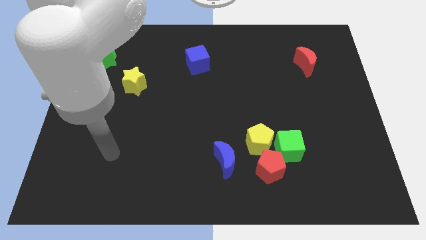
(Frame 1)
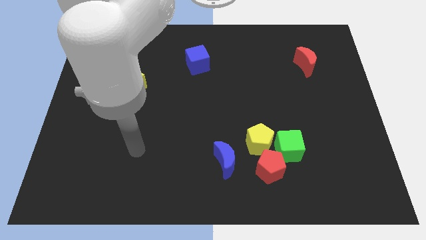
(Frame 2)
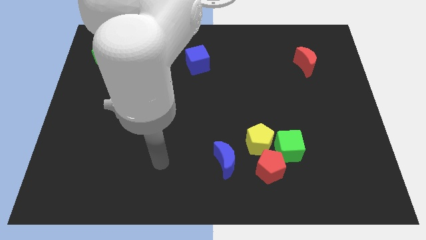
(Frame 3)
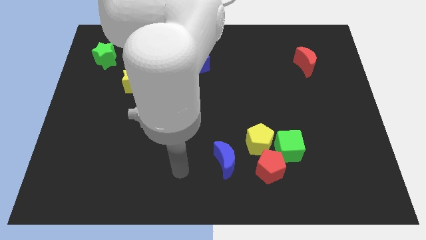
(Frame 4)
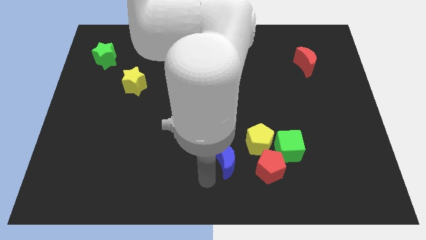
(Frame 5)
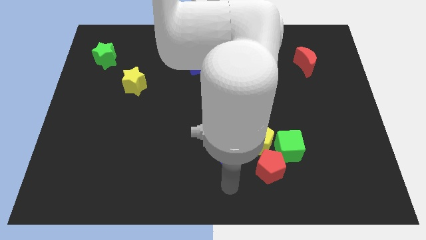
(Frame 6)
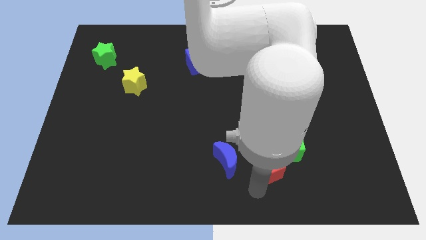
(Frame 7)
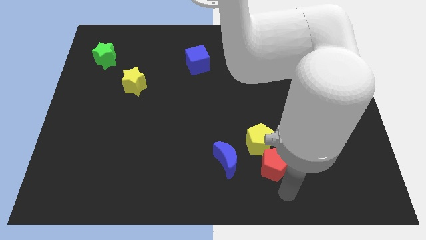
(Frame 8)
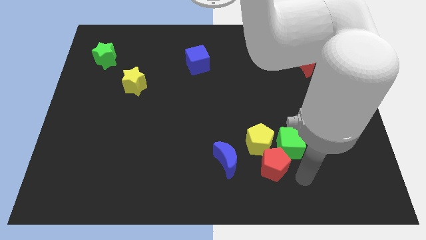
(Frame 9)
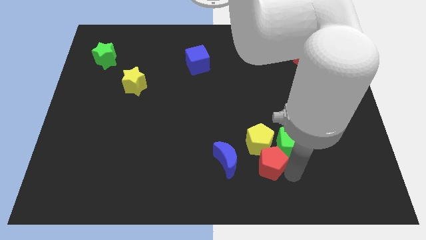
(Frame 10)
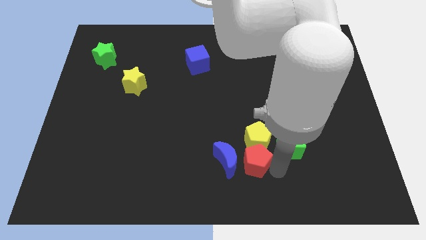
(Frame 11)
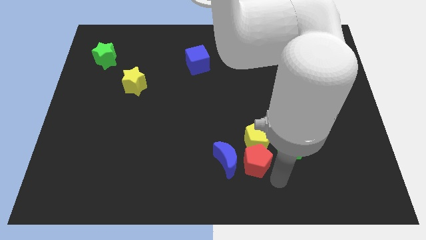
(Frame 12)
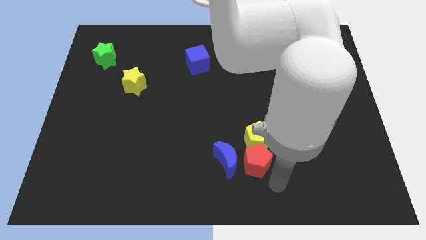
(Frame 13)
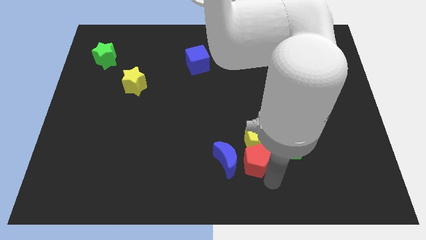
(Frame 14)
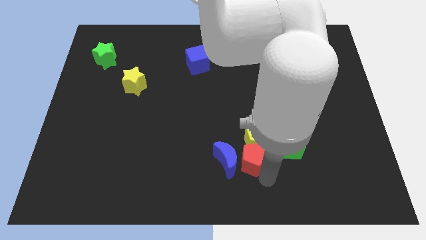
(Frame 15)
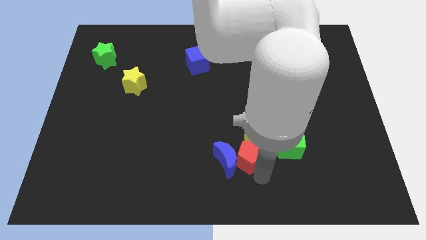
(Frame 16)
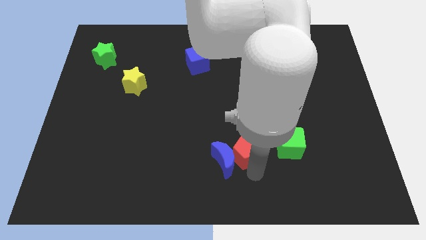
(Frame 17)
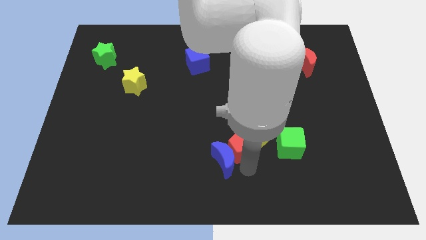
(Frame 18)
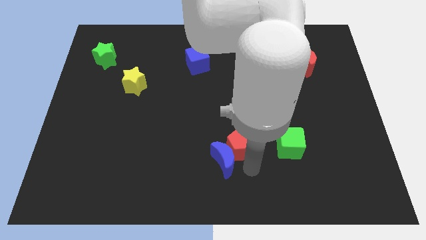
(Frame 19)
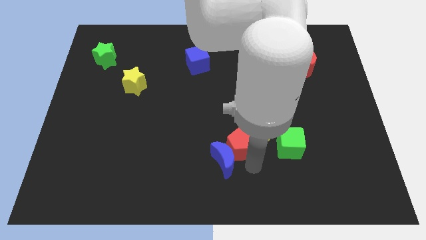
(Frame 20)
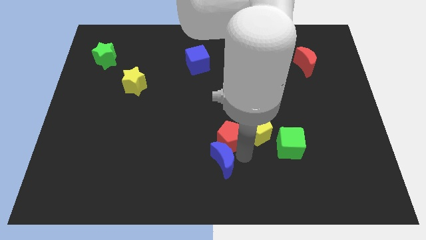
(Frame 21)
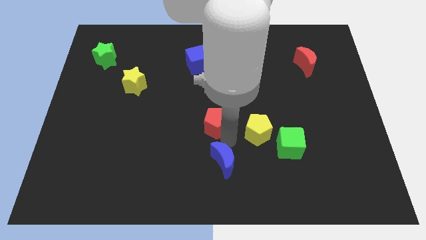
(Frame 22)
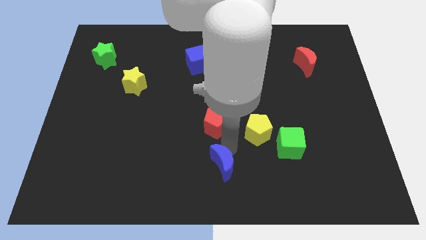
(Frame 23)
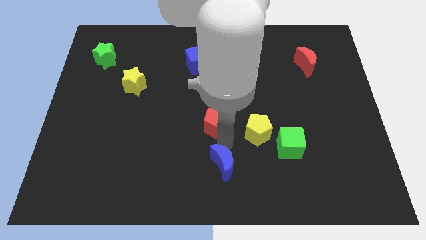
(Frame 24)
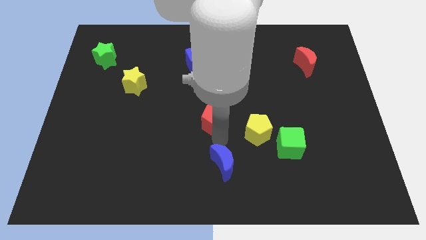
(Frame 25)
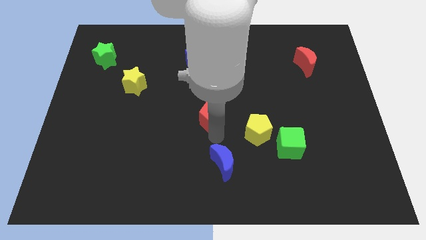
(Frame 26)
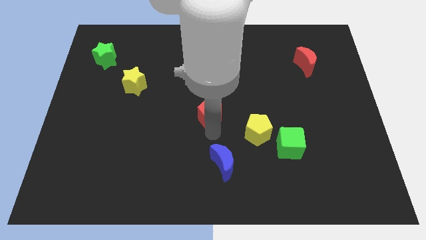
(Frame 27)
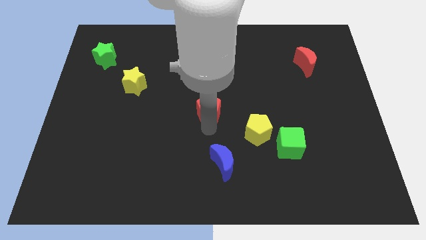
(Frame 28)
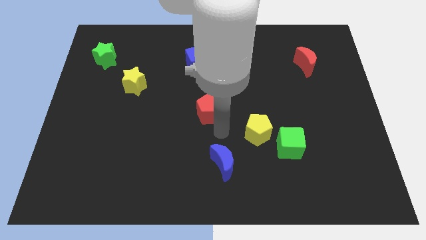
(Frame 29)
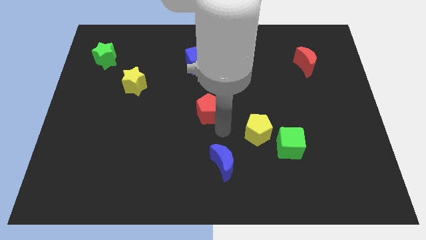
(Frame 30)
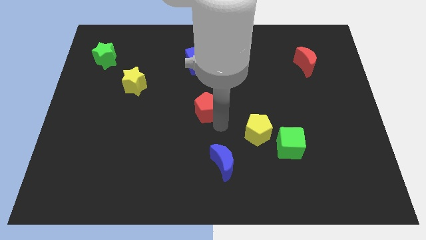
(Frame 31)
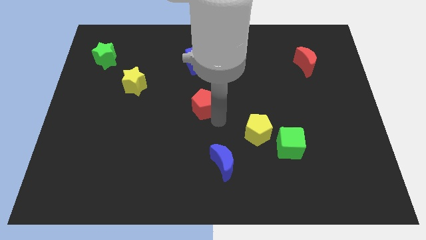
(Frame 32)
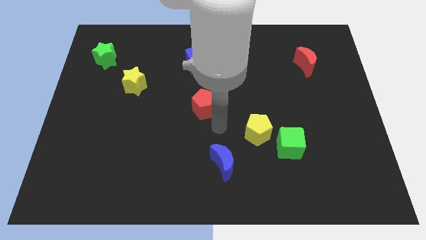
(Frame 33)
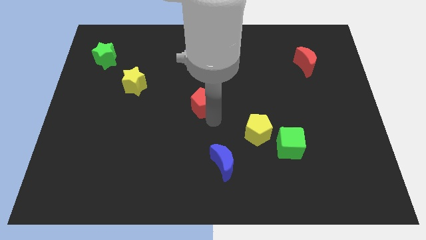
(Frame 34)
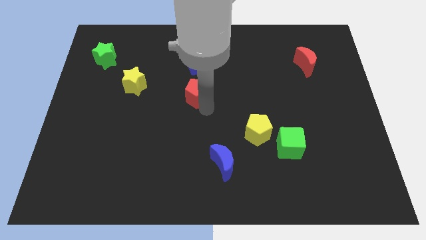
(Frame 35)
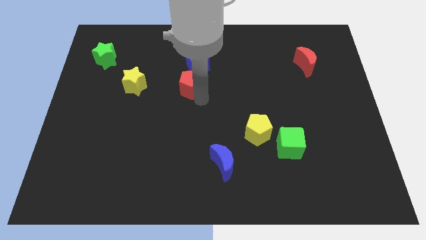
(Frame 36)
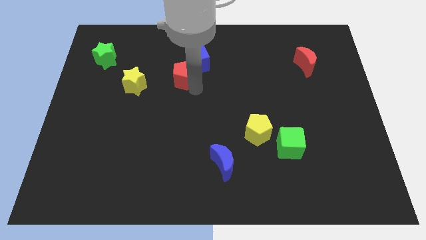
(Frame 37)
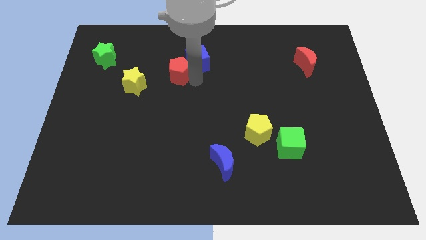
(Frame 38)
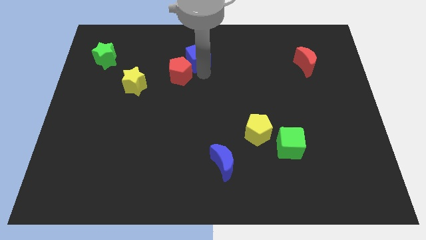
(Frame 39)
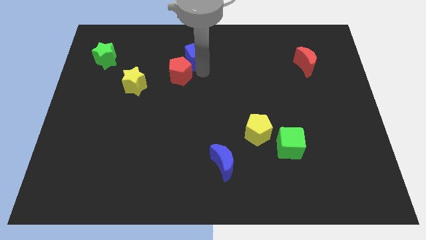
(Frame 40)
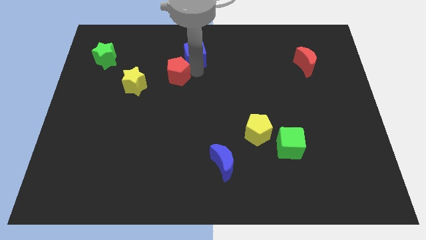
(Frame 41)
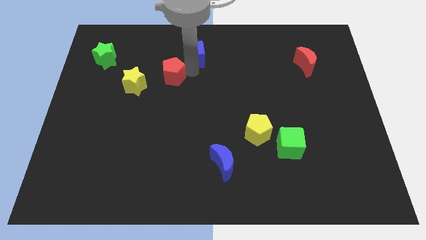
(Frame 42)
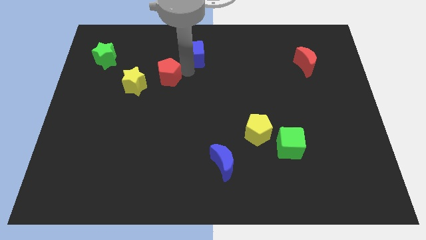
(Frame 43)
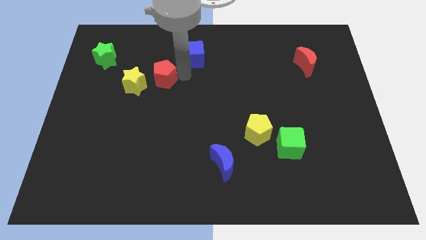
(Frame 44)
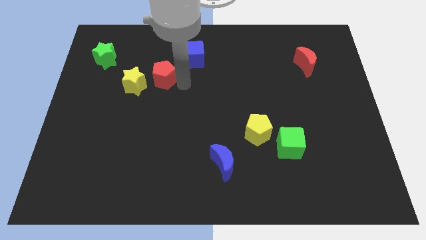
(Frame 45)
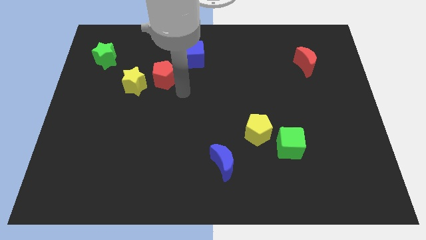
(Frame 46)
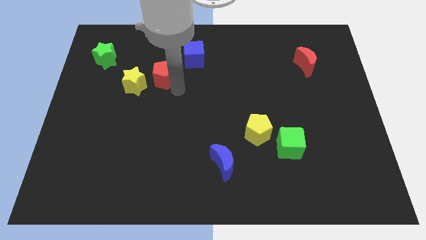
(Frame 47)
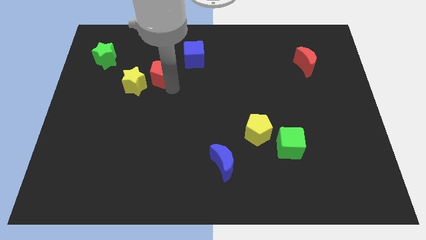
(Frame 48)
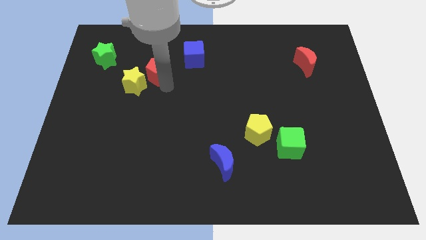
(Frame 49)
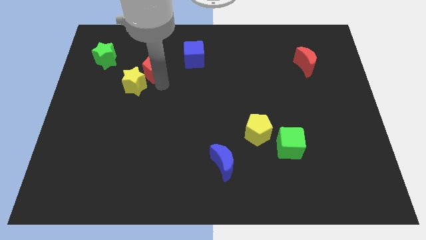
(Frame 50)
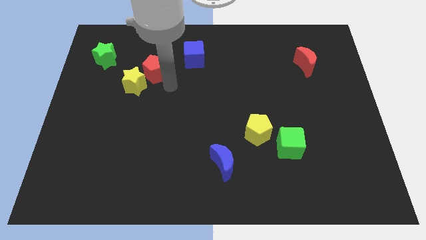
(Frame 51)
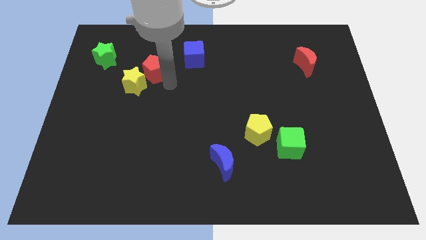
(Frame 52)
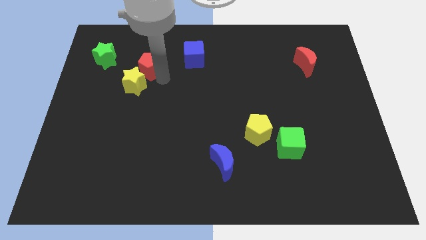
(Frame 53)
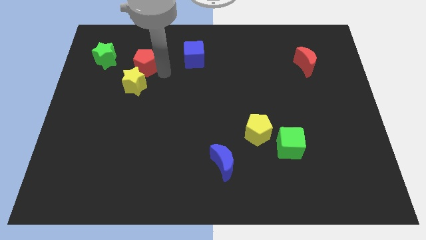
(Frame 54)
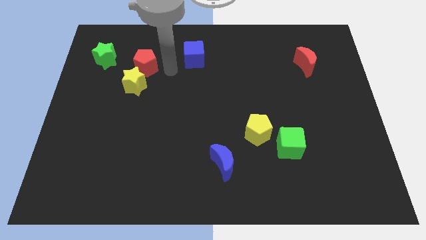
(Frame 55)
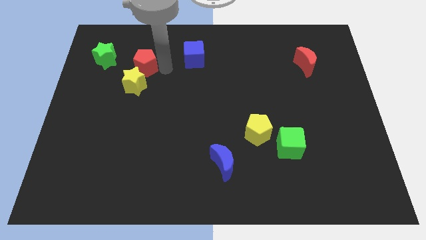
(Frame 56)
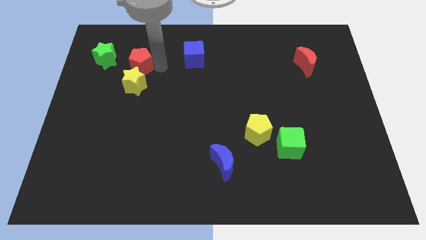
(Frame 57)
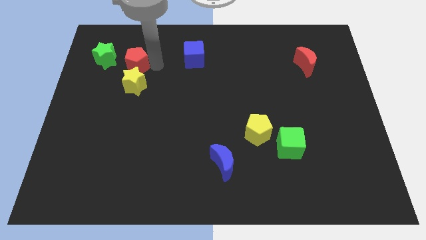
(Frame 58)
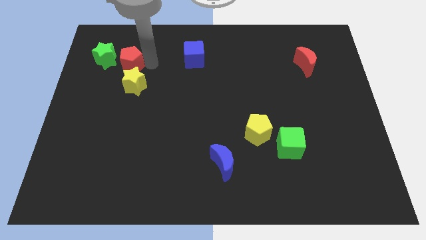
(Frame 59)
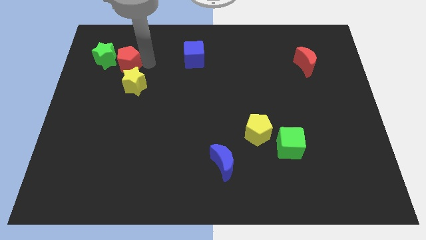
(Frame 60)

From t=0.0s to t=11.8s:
put the red pentagon towards the green star

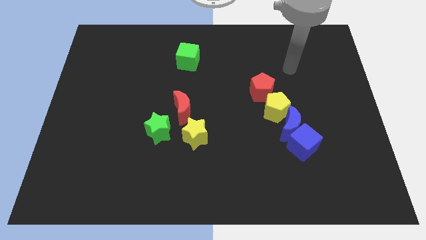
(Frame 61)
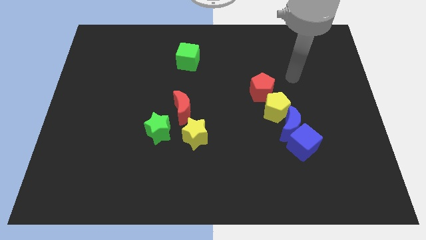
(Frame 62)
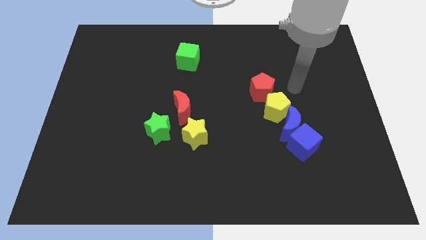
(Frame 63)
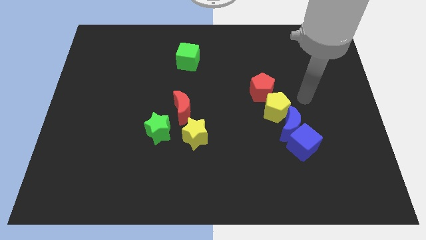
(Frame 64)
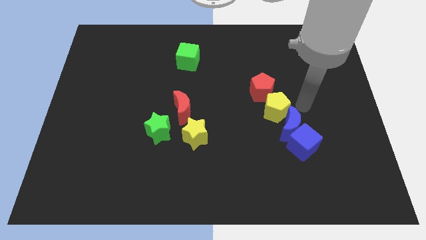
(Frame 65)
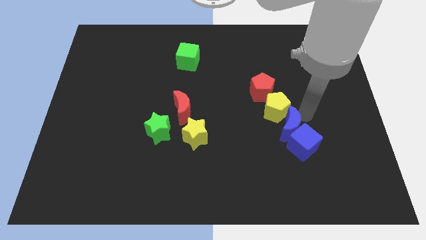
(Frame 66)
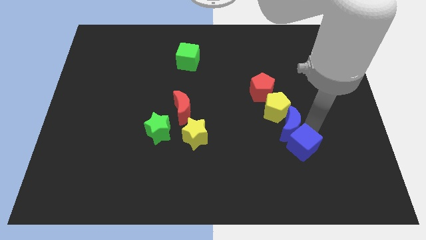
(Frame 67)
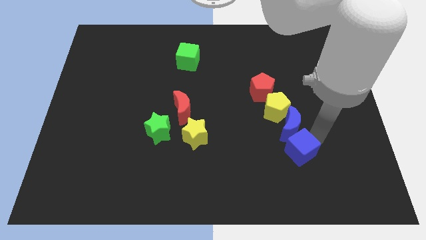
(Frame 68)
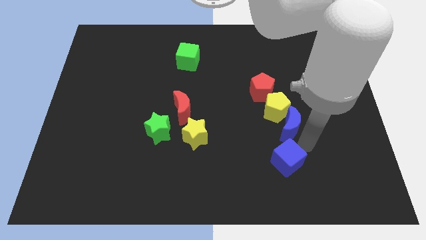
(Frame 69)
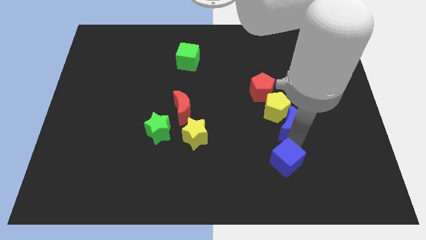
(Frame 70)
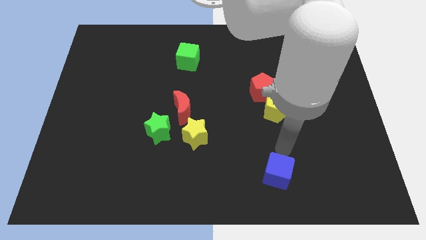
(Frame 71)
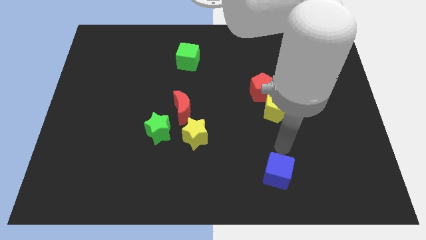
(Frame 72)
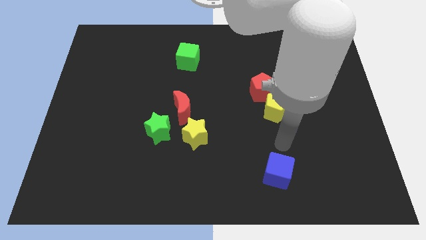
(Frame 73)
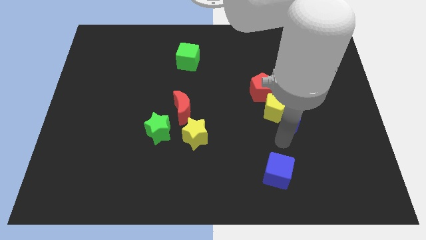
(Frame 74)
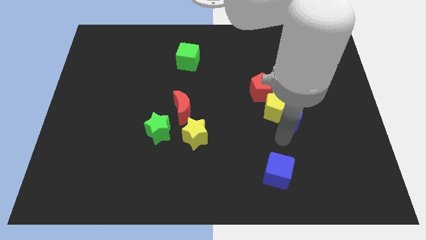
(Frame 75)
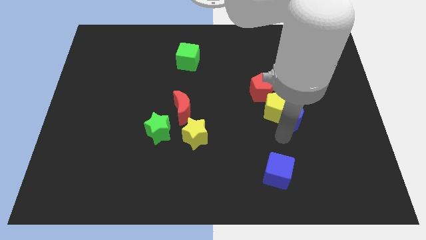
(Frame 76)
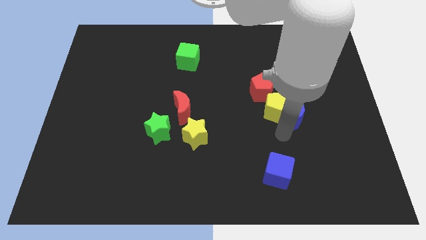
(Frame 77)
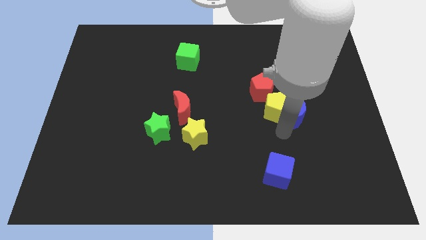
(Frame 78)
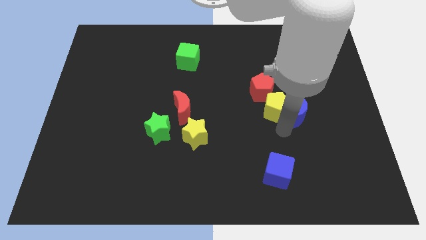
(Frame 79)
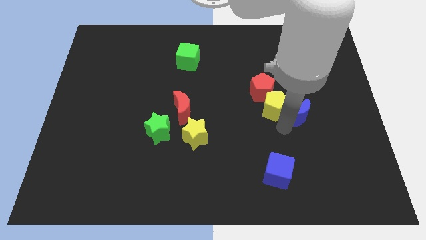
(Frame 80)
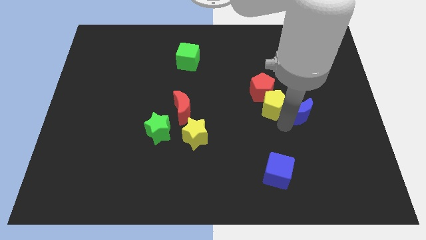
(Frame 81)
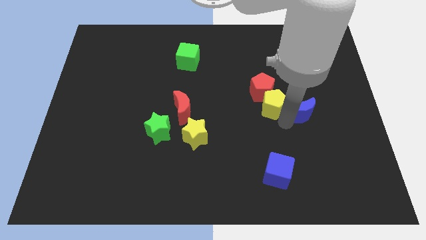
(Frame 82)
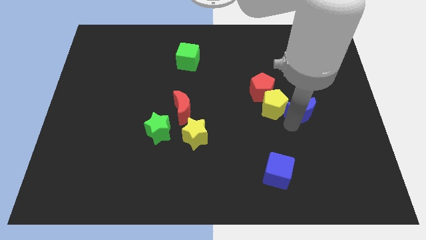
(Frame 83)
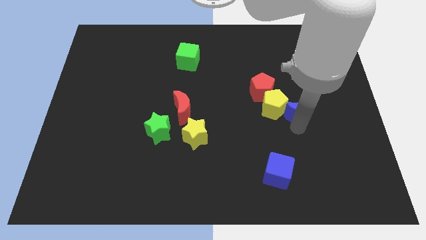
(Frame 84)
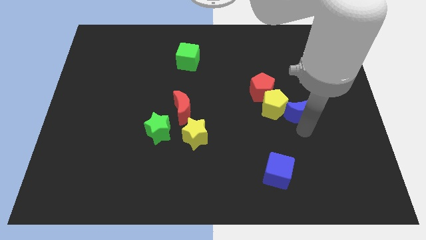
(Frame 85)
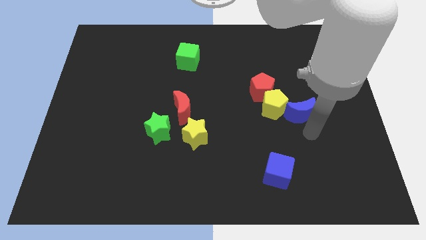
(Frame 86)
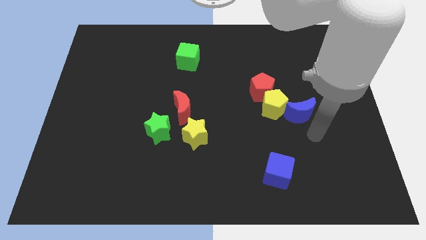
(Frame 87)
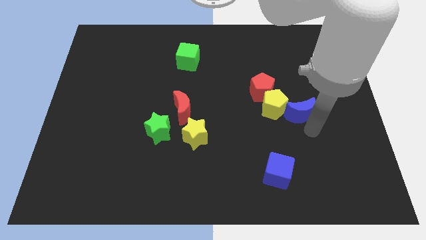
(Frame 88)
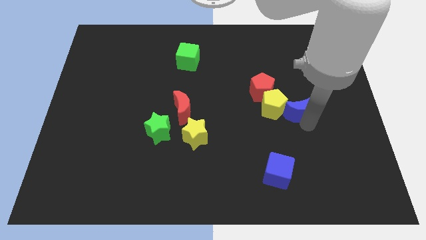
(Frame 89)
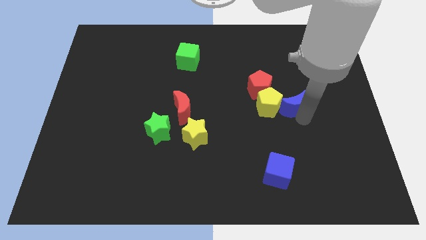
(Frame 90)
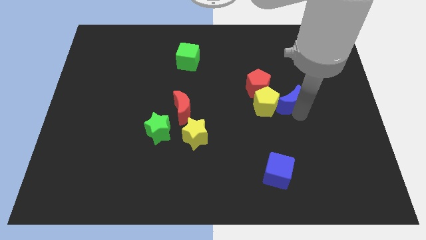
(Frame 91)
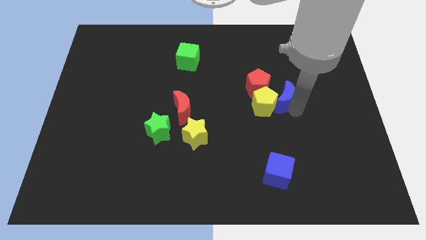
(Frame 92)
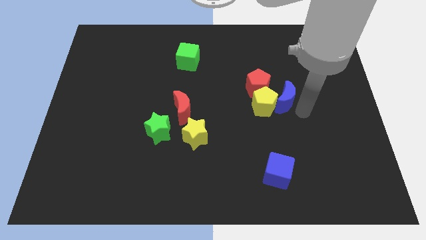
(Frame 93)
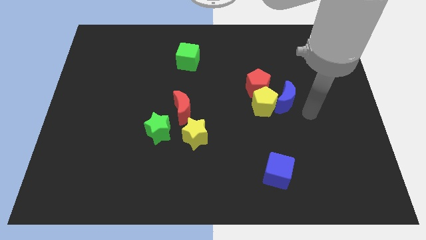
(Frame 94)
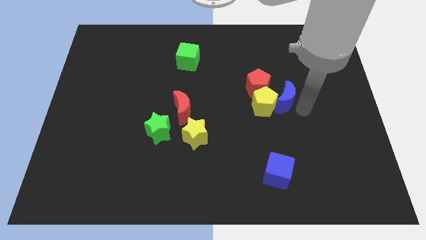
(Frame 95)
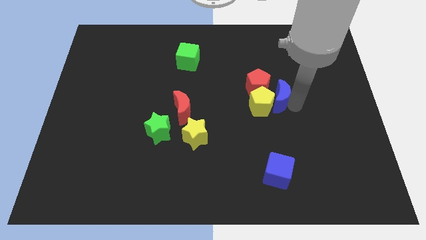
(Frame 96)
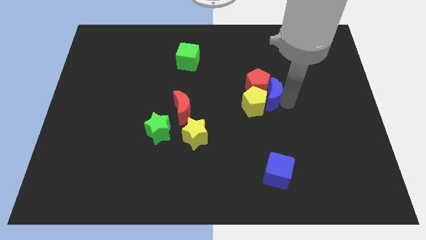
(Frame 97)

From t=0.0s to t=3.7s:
put the blue moon to the red pentagon
